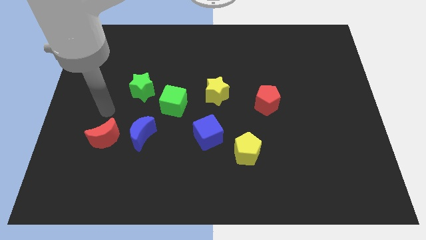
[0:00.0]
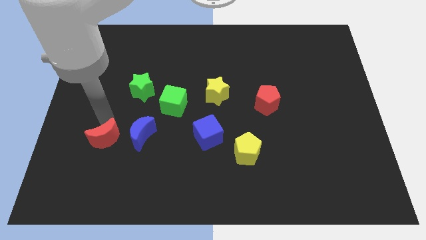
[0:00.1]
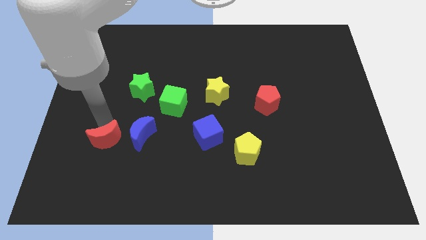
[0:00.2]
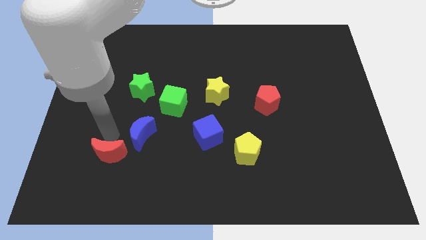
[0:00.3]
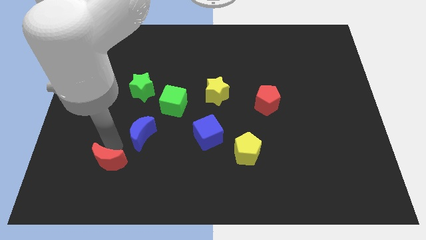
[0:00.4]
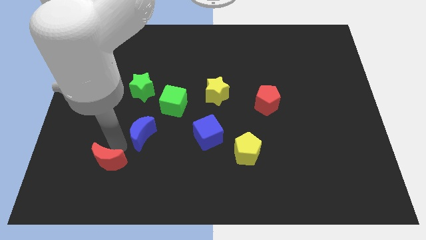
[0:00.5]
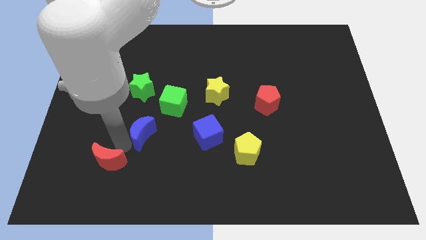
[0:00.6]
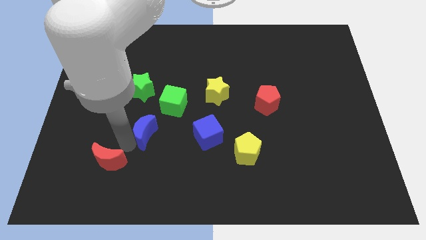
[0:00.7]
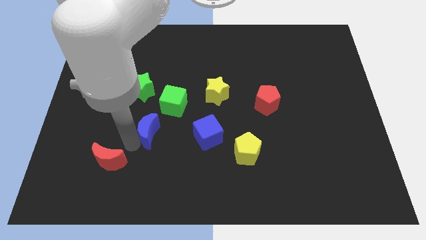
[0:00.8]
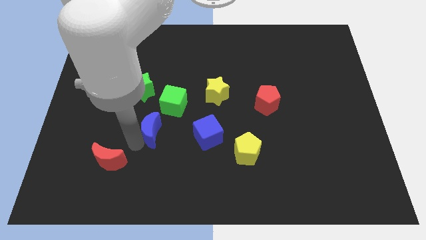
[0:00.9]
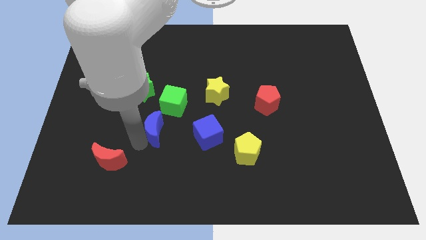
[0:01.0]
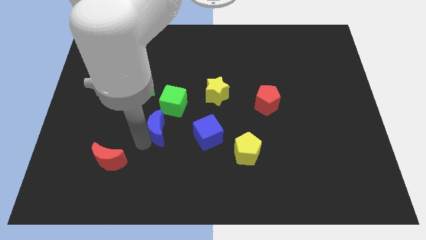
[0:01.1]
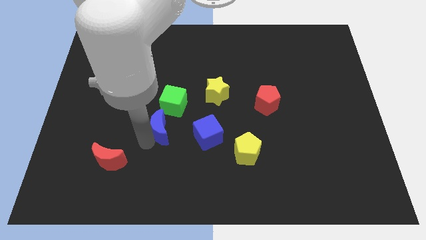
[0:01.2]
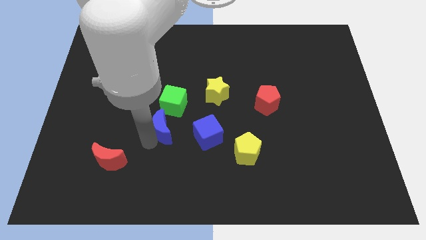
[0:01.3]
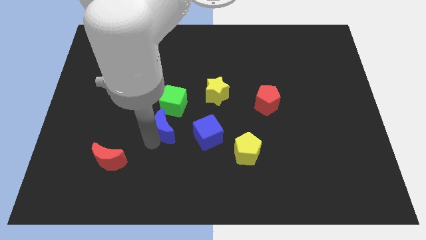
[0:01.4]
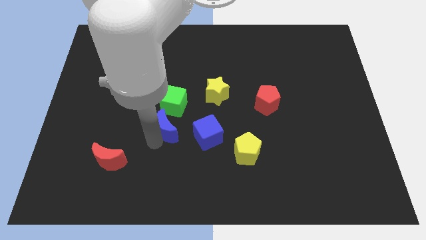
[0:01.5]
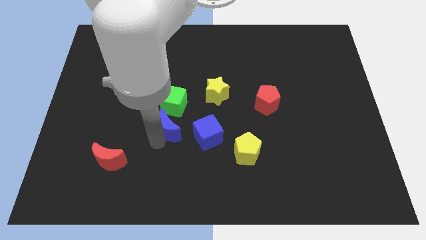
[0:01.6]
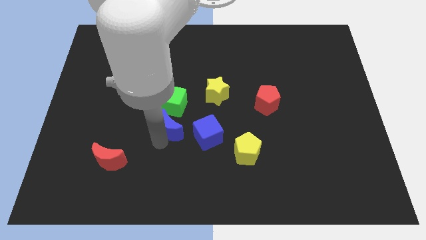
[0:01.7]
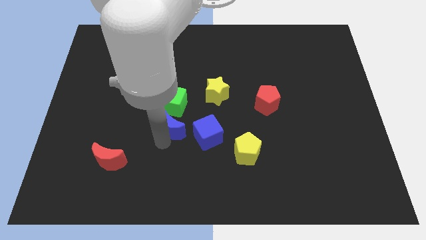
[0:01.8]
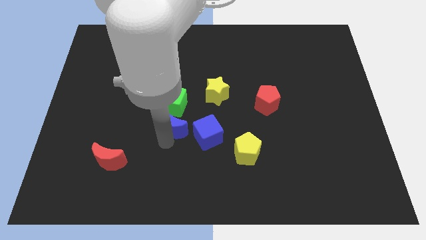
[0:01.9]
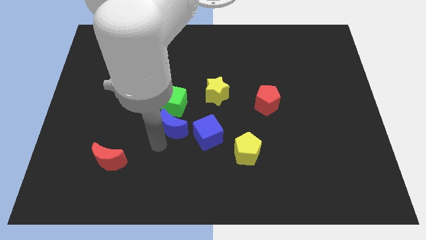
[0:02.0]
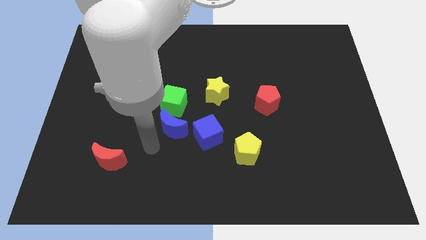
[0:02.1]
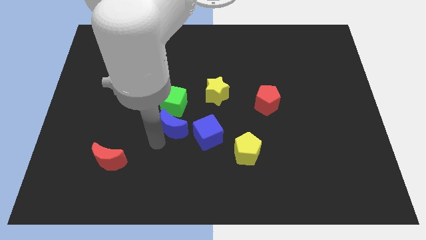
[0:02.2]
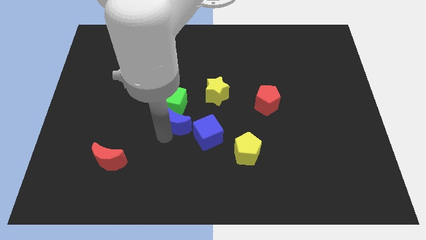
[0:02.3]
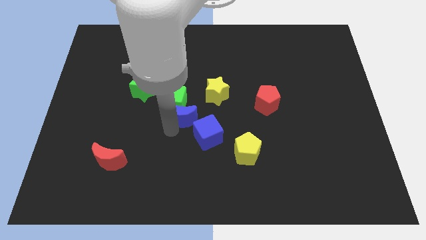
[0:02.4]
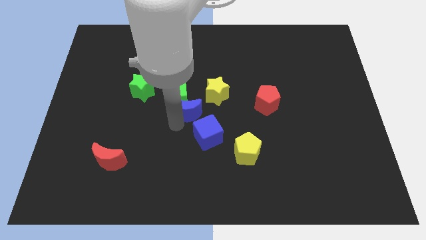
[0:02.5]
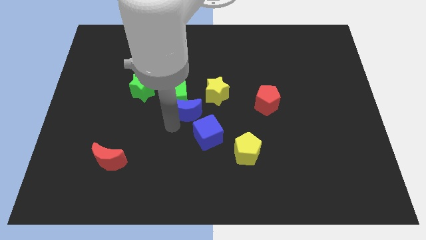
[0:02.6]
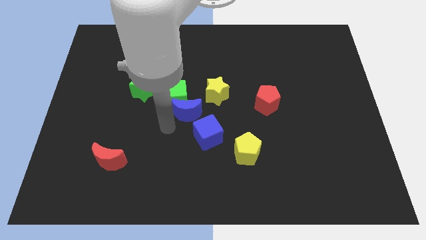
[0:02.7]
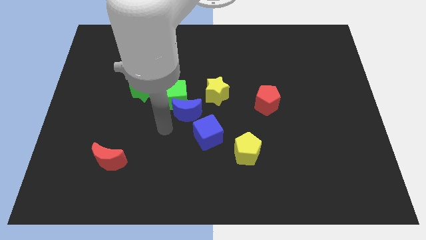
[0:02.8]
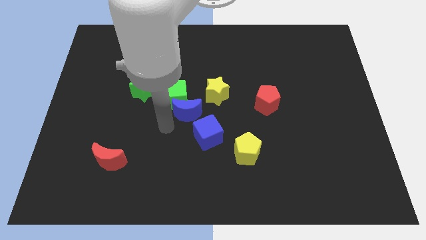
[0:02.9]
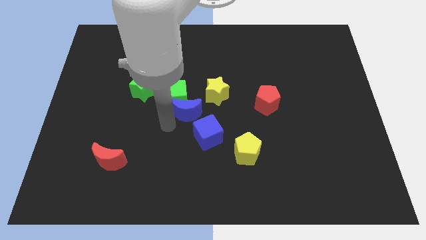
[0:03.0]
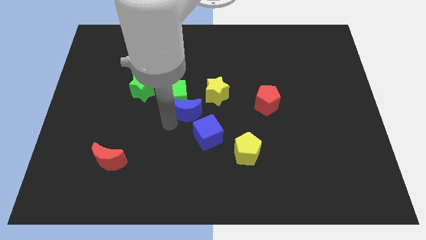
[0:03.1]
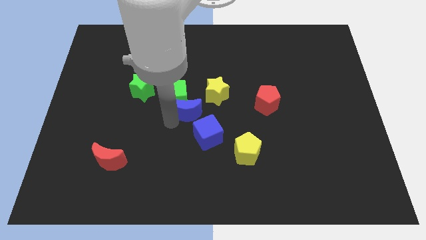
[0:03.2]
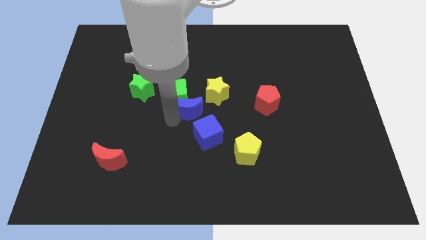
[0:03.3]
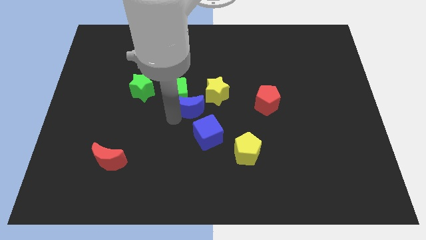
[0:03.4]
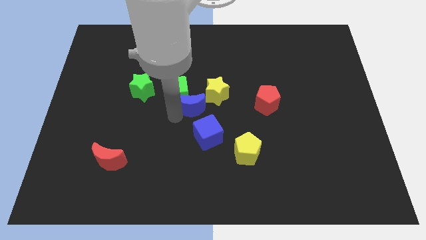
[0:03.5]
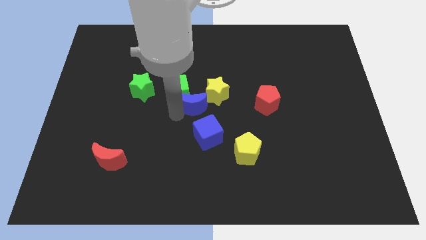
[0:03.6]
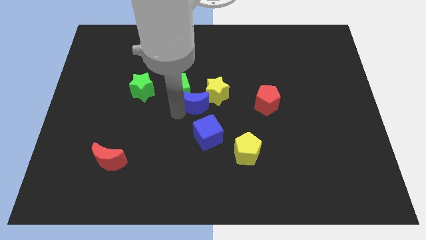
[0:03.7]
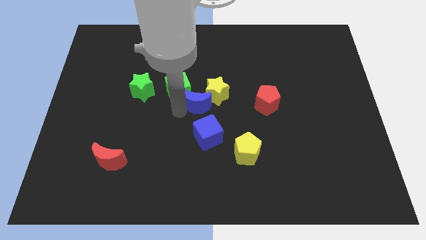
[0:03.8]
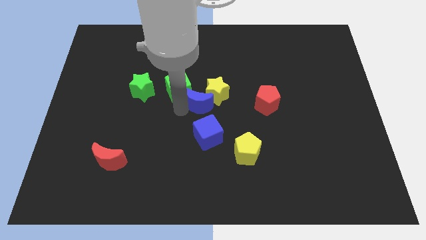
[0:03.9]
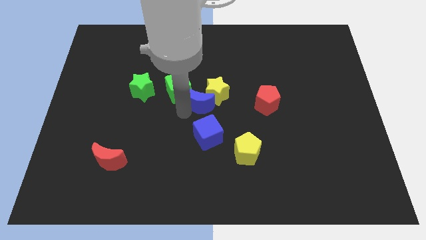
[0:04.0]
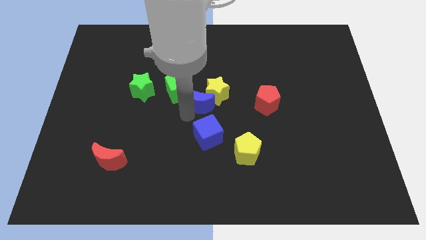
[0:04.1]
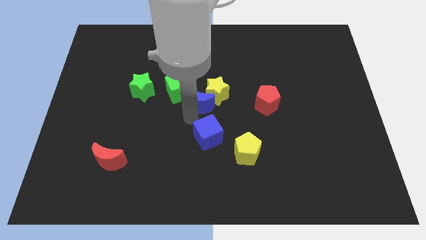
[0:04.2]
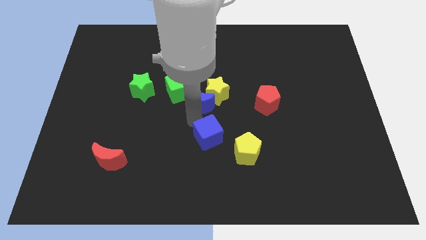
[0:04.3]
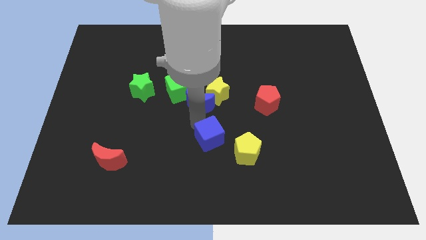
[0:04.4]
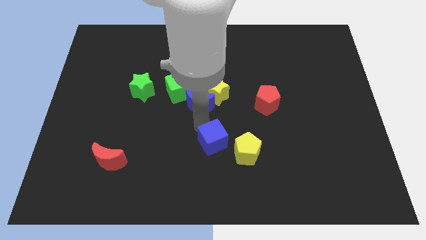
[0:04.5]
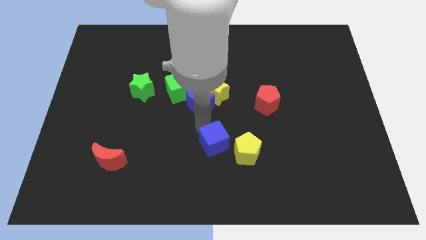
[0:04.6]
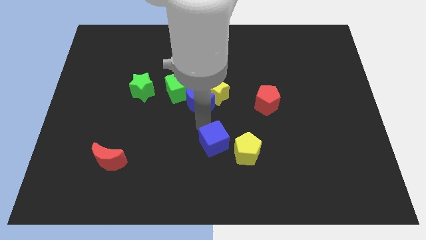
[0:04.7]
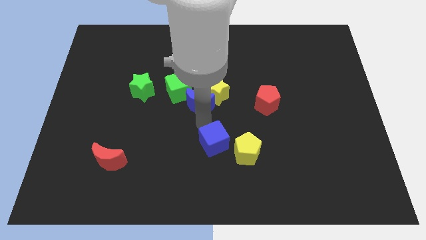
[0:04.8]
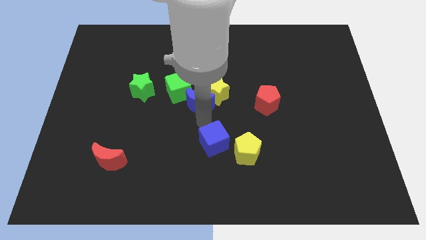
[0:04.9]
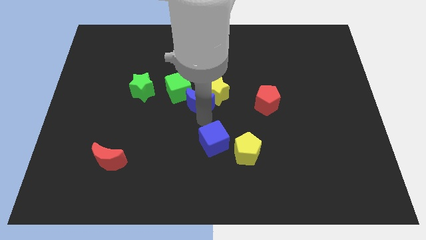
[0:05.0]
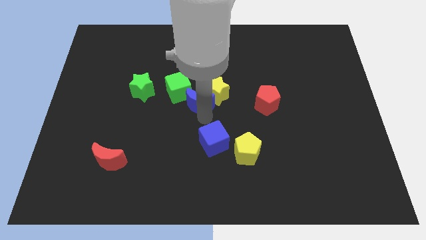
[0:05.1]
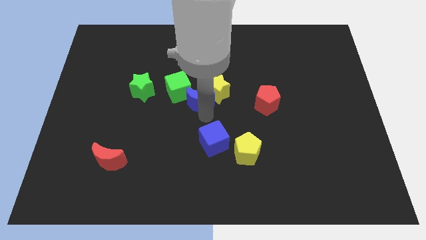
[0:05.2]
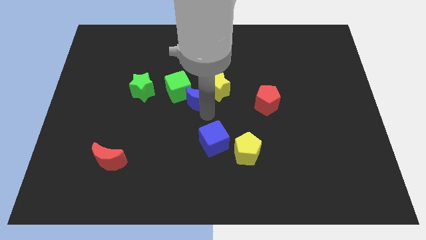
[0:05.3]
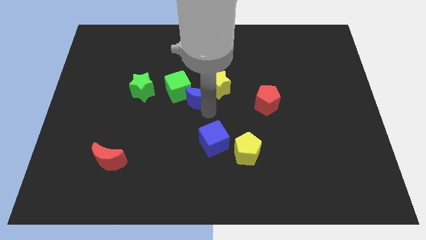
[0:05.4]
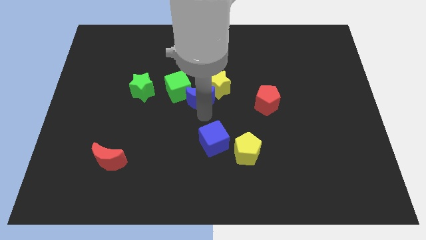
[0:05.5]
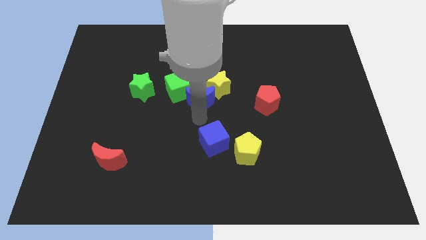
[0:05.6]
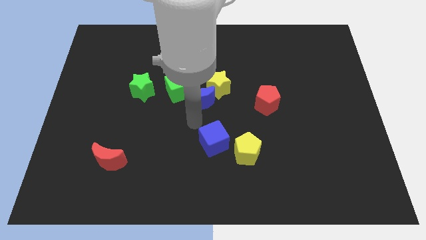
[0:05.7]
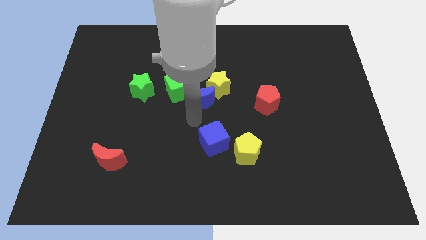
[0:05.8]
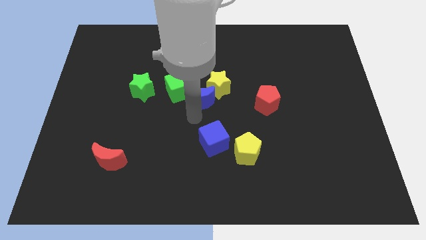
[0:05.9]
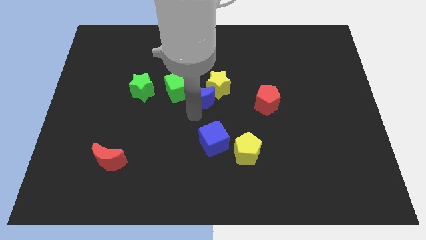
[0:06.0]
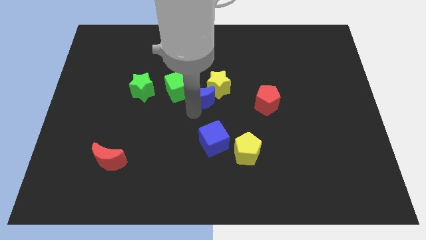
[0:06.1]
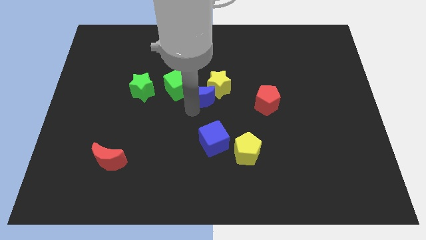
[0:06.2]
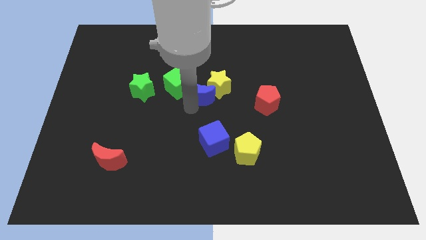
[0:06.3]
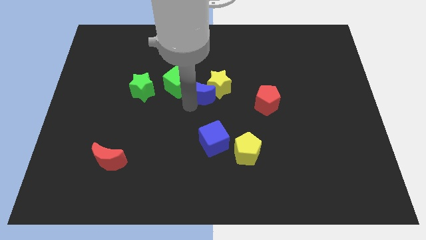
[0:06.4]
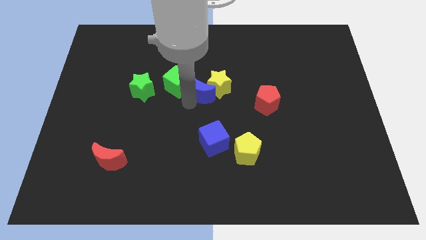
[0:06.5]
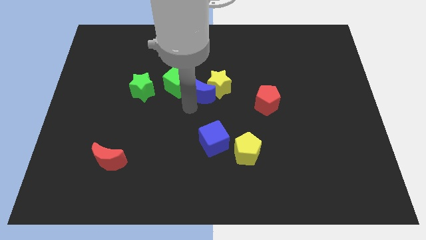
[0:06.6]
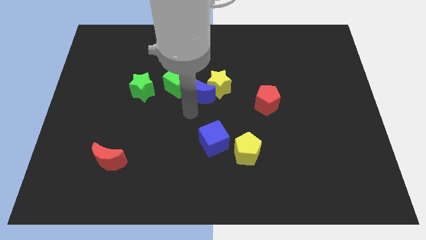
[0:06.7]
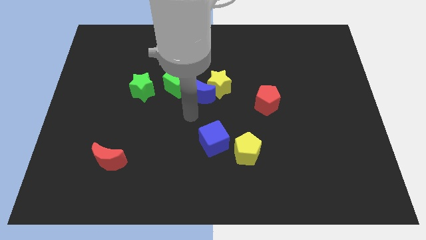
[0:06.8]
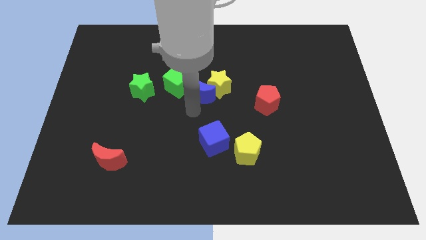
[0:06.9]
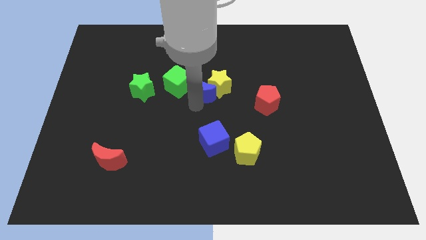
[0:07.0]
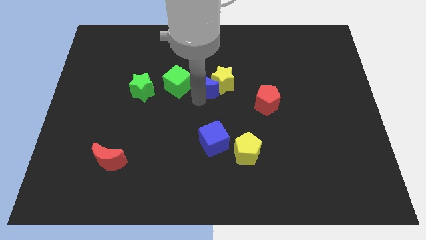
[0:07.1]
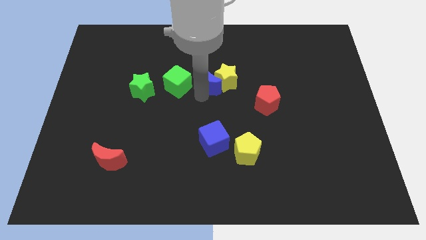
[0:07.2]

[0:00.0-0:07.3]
slide the blue moon up and then right

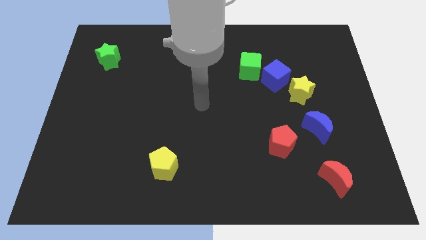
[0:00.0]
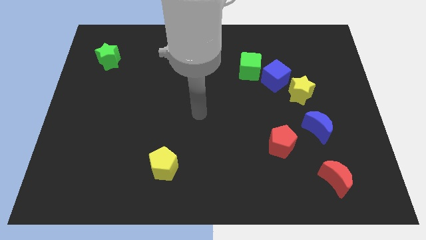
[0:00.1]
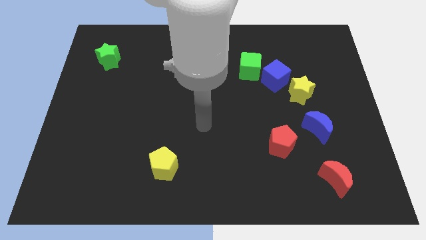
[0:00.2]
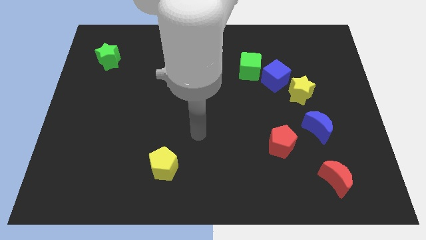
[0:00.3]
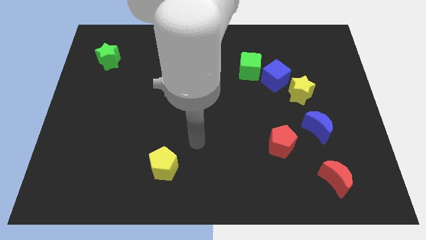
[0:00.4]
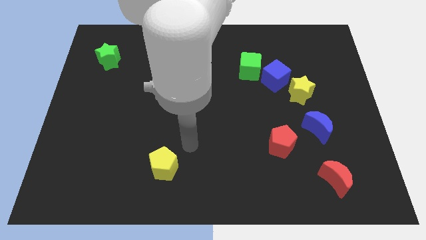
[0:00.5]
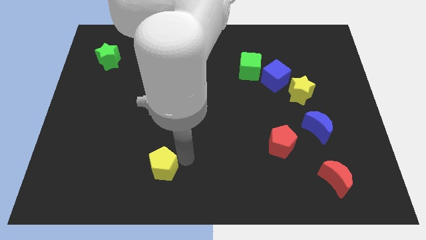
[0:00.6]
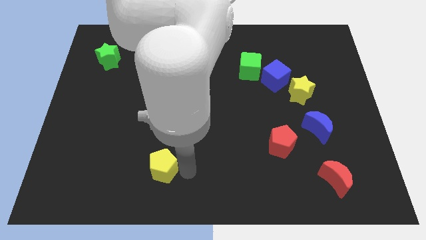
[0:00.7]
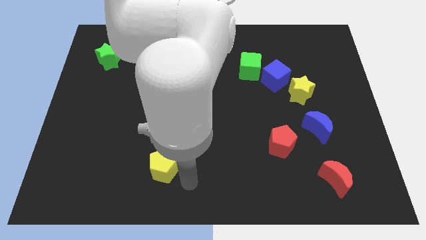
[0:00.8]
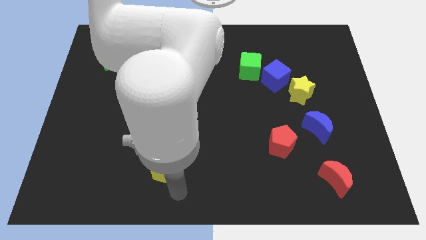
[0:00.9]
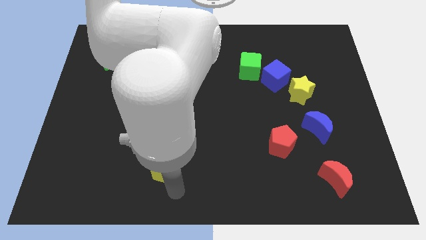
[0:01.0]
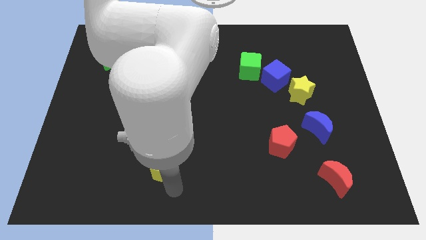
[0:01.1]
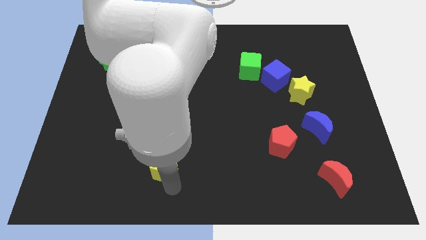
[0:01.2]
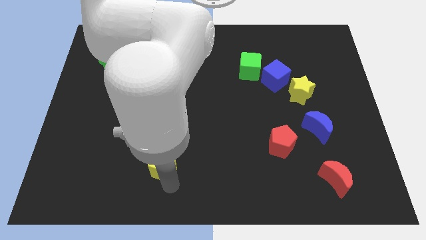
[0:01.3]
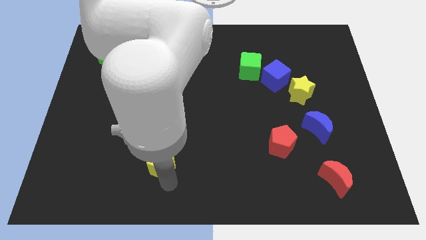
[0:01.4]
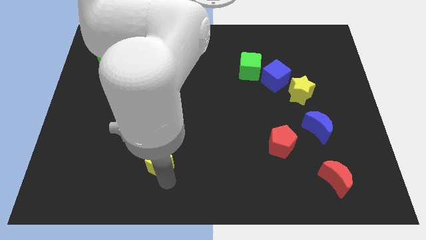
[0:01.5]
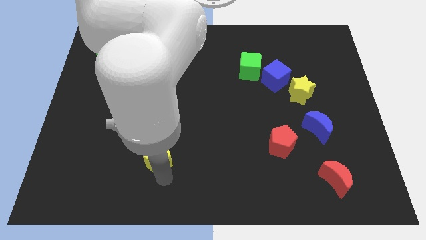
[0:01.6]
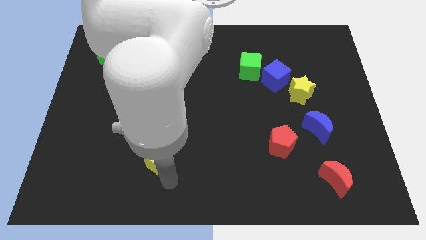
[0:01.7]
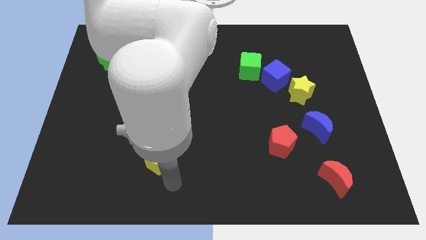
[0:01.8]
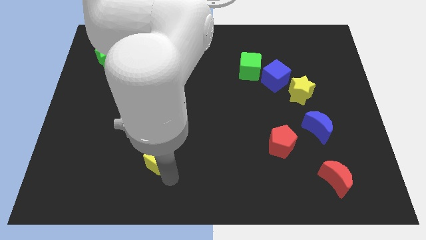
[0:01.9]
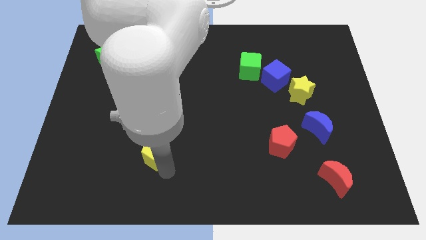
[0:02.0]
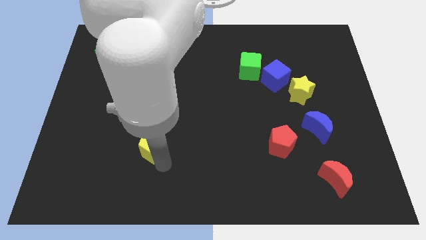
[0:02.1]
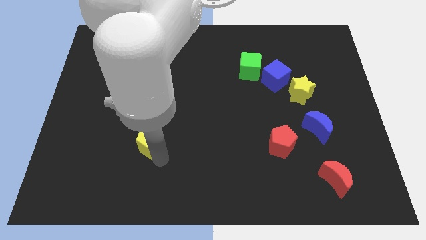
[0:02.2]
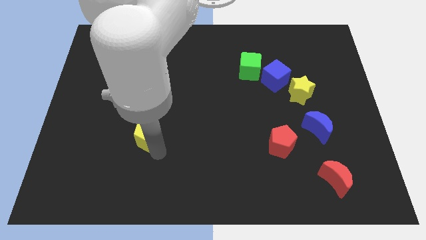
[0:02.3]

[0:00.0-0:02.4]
slightly move the yellow pentagon up and to the left diagonally
